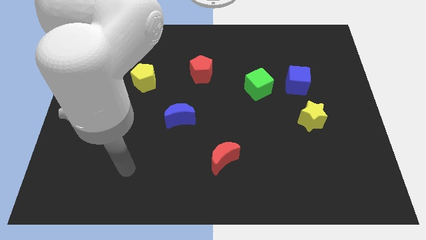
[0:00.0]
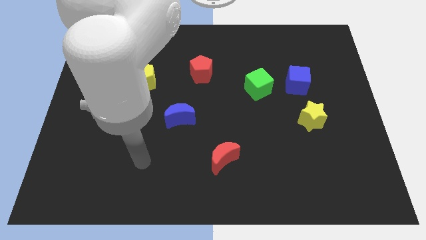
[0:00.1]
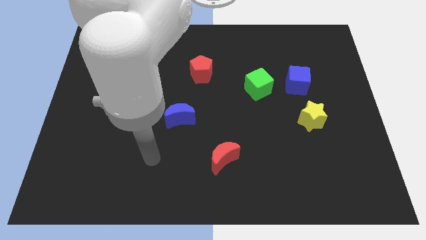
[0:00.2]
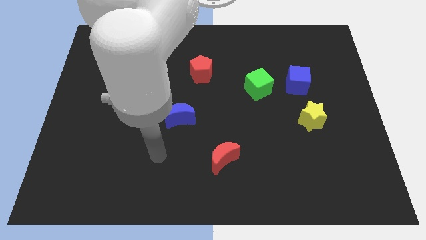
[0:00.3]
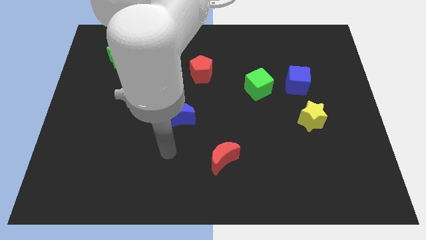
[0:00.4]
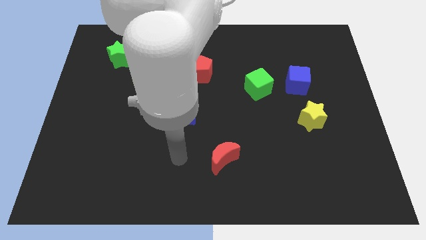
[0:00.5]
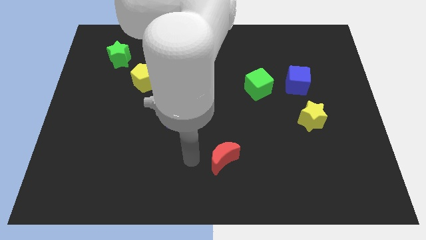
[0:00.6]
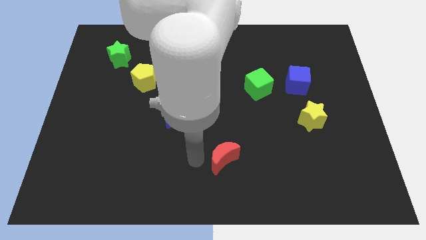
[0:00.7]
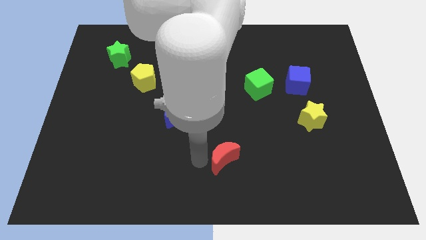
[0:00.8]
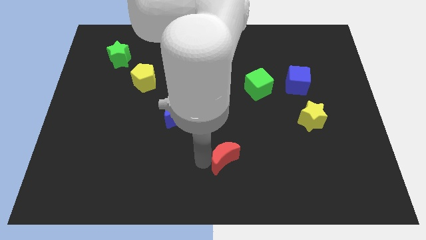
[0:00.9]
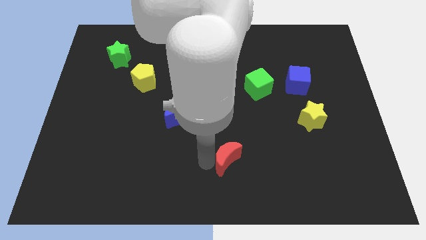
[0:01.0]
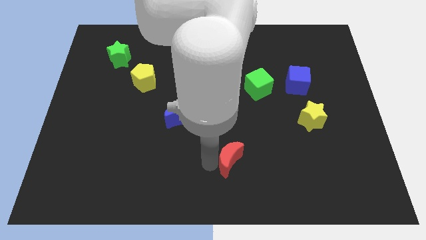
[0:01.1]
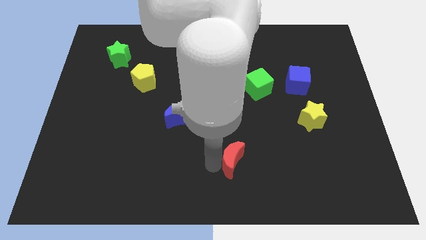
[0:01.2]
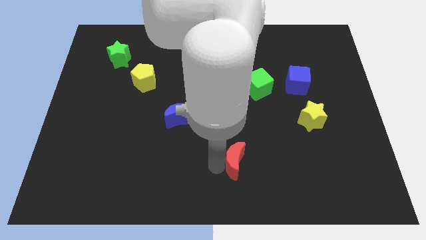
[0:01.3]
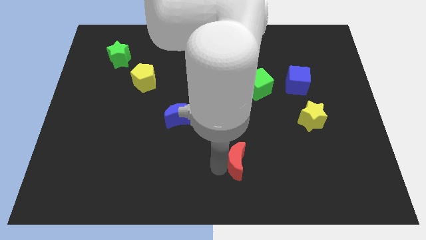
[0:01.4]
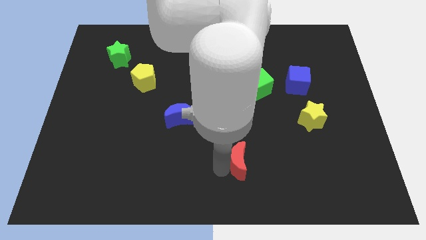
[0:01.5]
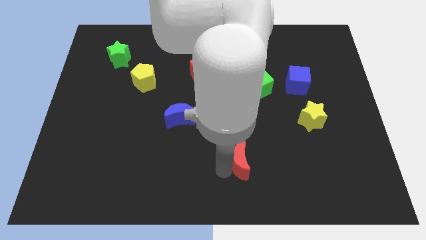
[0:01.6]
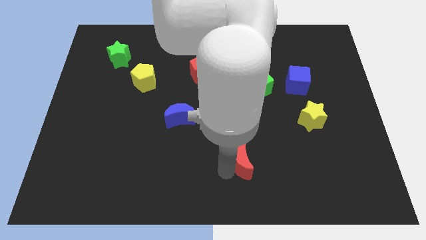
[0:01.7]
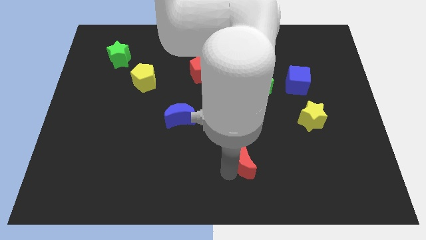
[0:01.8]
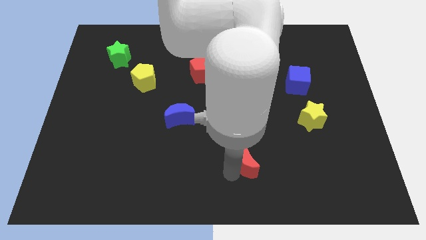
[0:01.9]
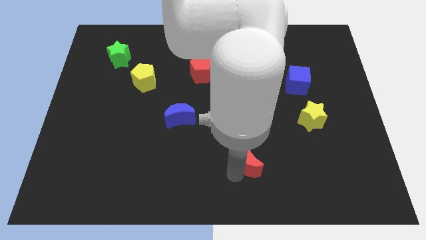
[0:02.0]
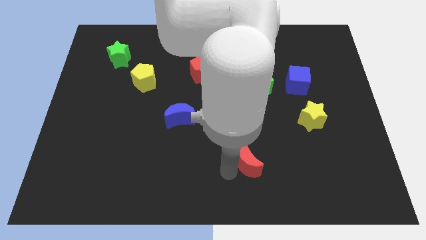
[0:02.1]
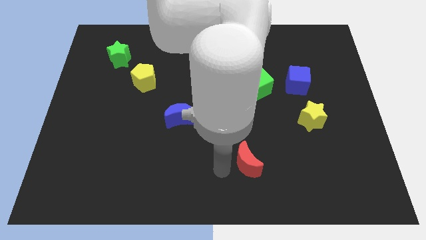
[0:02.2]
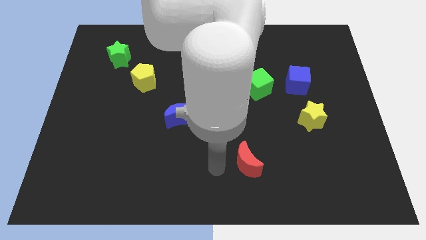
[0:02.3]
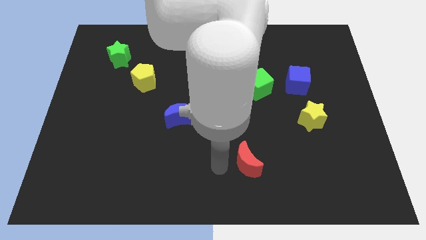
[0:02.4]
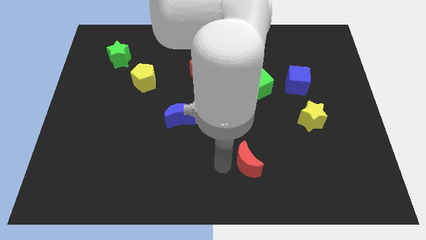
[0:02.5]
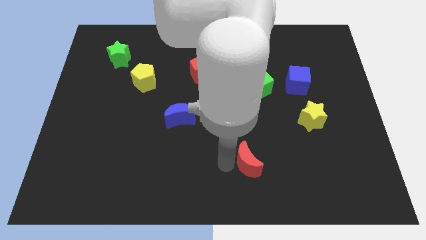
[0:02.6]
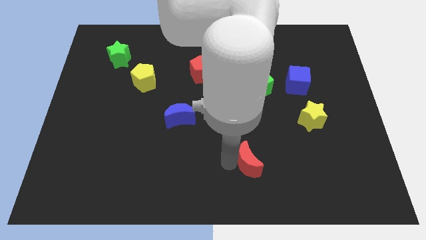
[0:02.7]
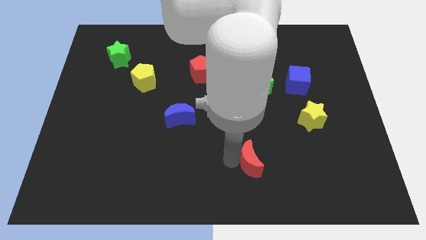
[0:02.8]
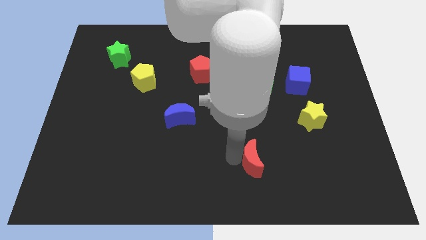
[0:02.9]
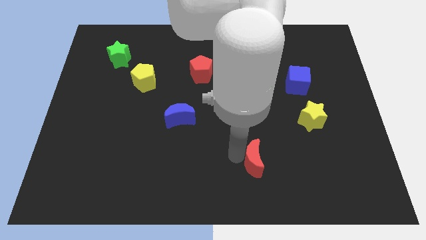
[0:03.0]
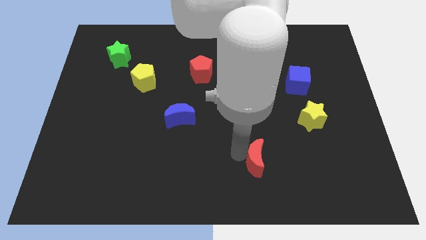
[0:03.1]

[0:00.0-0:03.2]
slightly push the red moon to the right

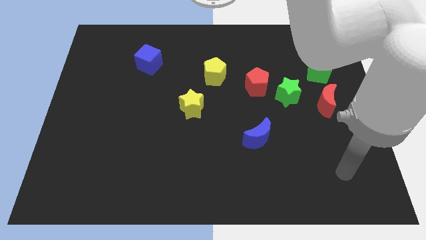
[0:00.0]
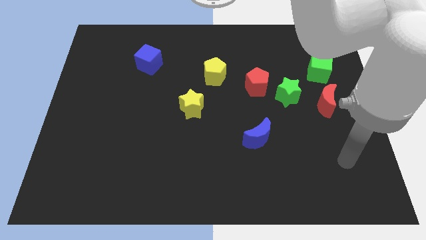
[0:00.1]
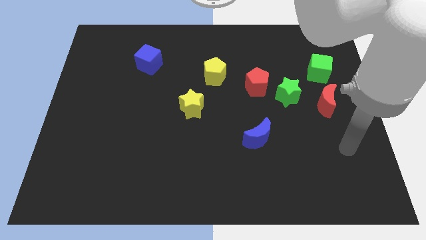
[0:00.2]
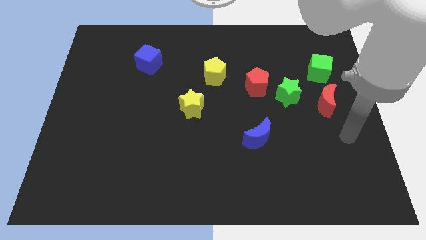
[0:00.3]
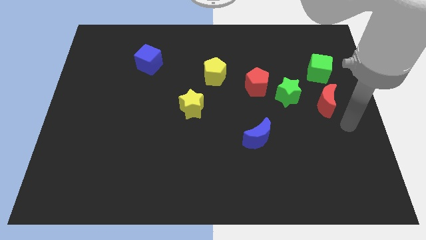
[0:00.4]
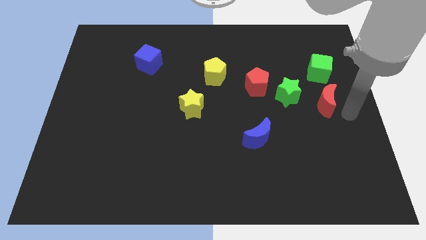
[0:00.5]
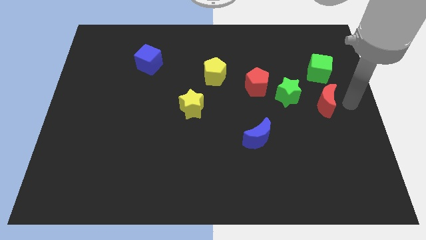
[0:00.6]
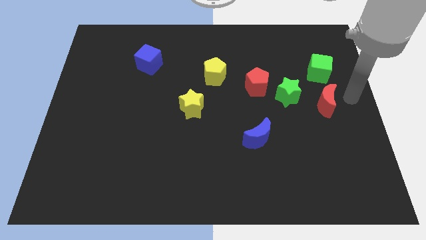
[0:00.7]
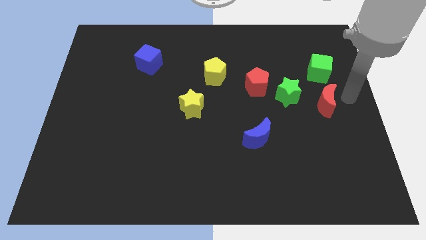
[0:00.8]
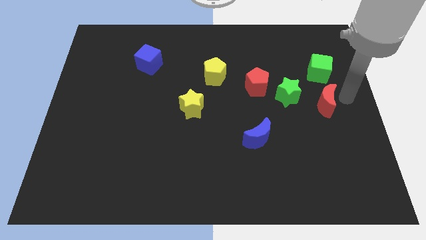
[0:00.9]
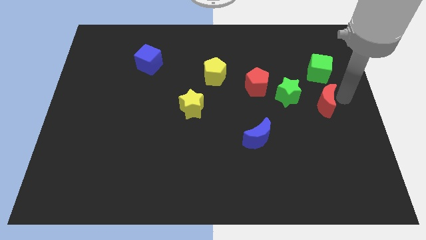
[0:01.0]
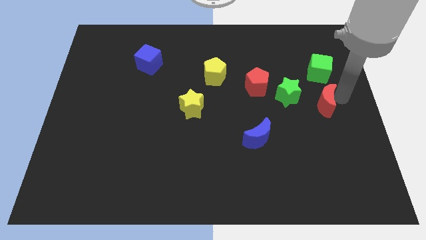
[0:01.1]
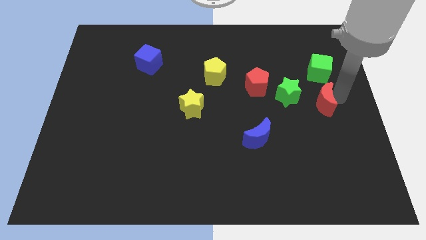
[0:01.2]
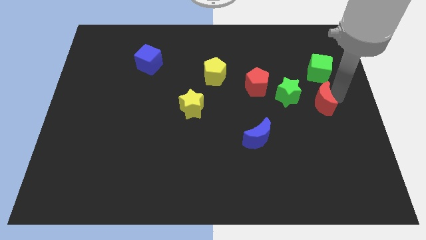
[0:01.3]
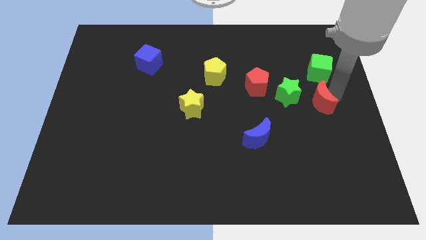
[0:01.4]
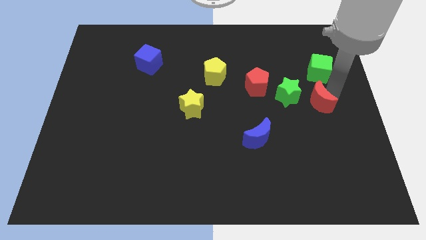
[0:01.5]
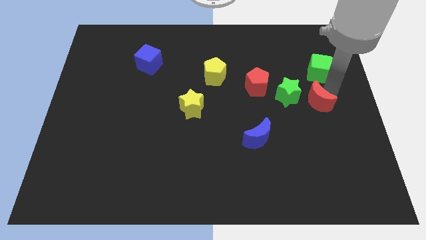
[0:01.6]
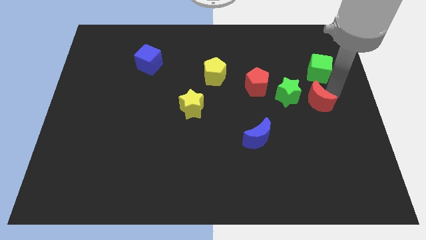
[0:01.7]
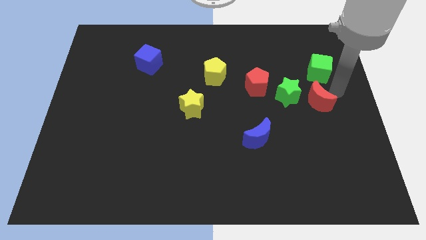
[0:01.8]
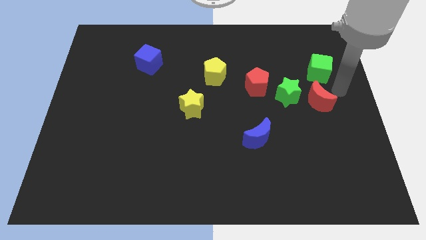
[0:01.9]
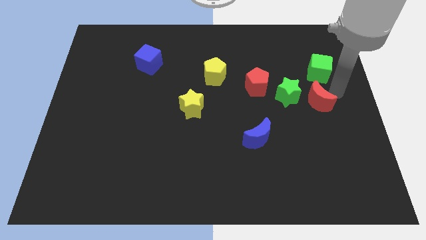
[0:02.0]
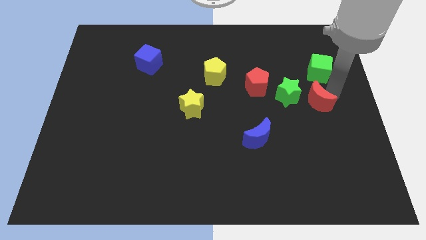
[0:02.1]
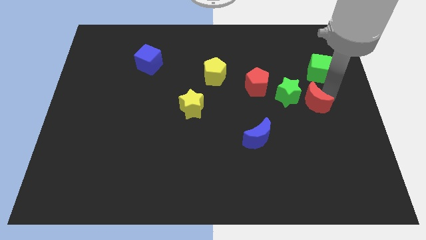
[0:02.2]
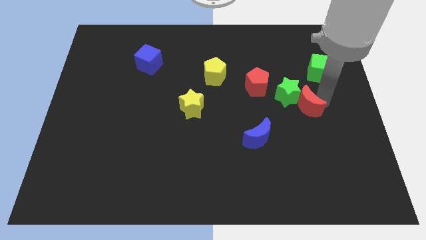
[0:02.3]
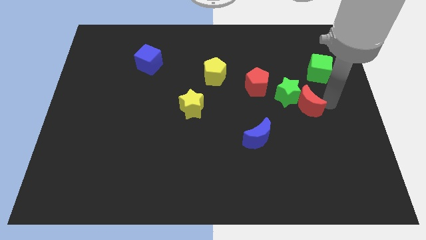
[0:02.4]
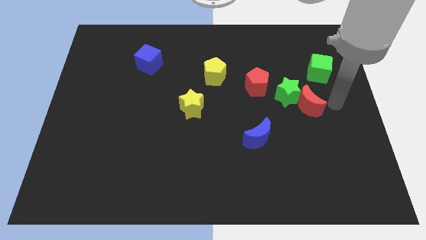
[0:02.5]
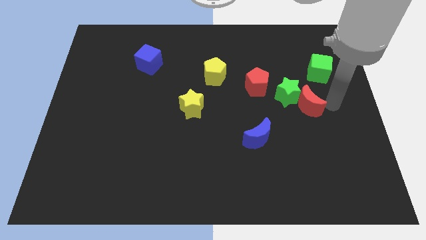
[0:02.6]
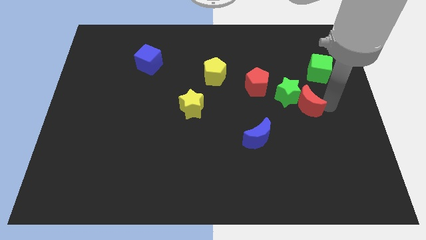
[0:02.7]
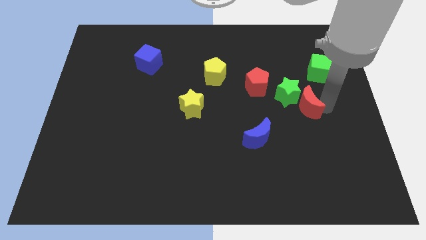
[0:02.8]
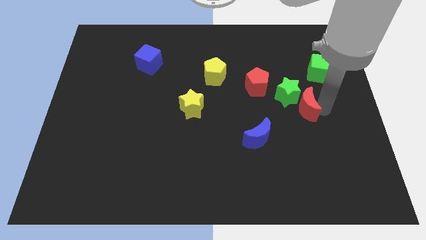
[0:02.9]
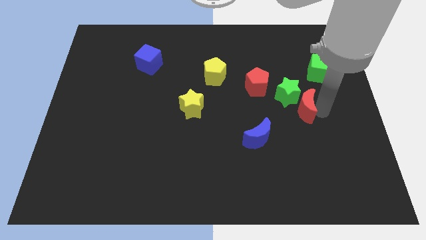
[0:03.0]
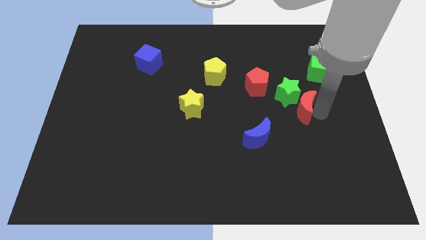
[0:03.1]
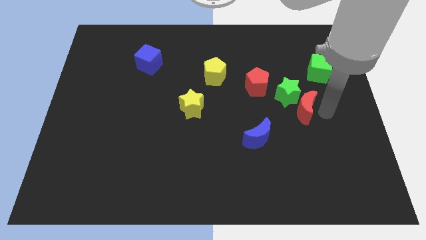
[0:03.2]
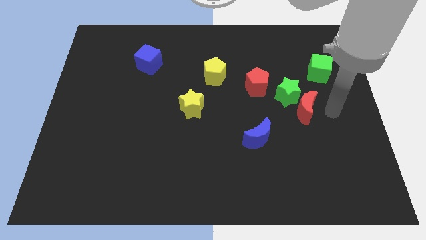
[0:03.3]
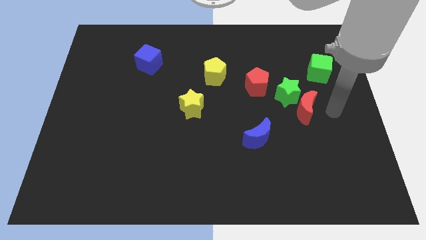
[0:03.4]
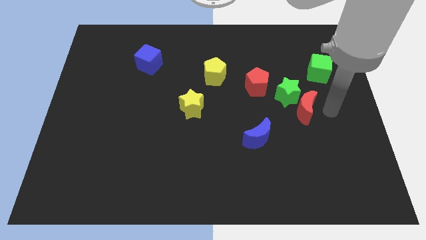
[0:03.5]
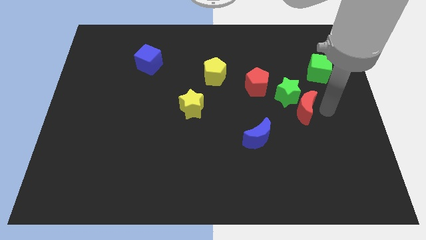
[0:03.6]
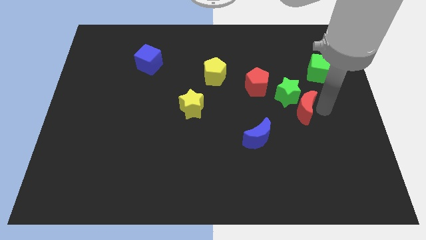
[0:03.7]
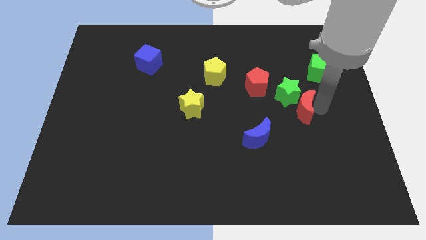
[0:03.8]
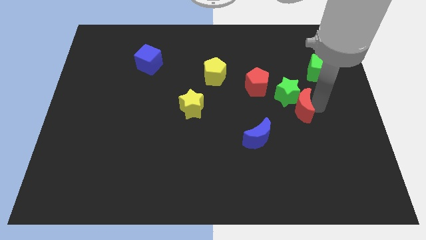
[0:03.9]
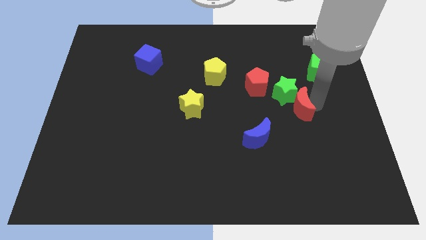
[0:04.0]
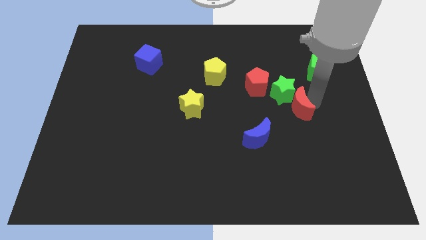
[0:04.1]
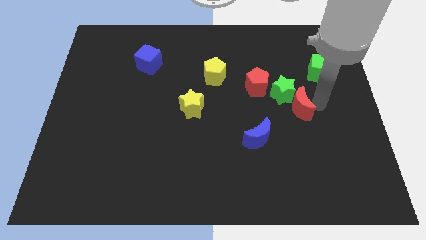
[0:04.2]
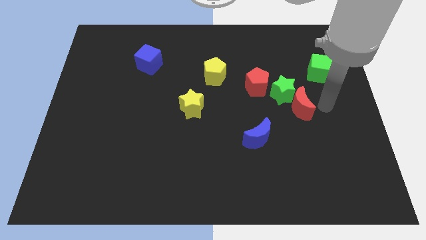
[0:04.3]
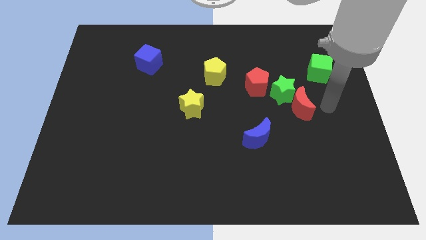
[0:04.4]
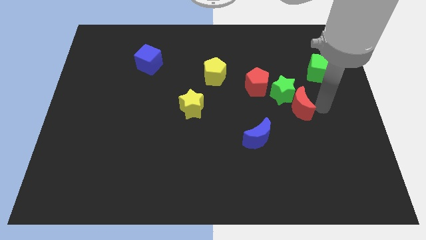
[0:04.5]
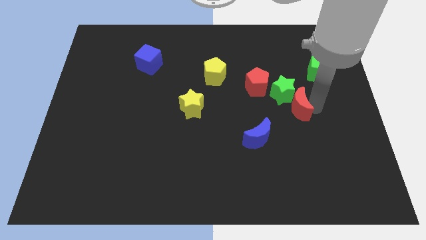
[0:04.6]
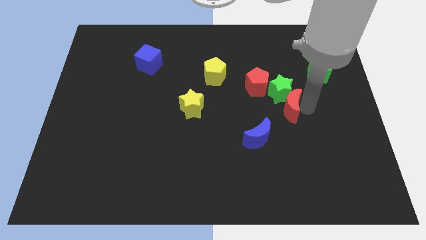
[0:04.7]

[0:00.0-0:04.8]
push the red moon to the left a bit

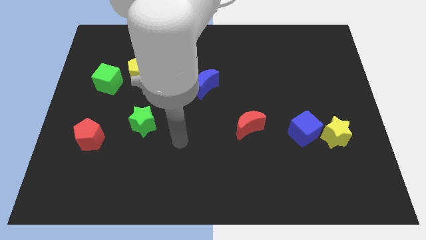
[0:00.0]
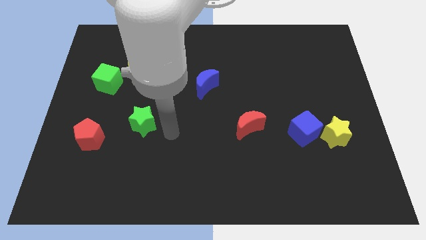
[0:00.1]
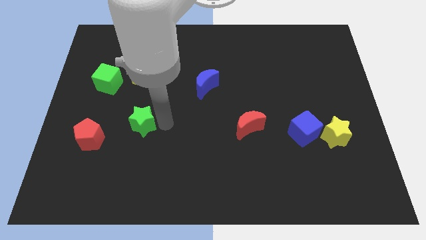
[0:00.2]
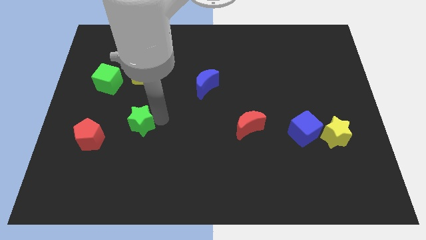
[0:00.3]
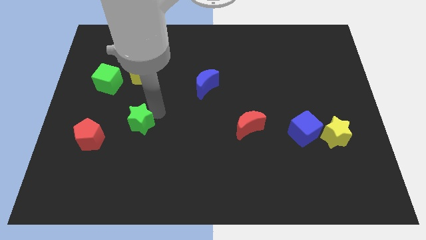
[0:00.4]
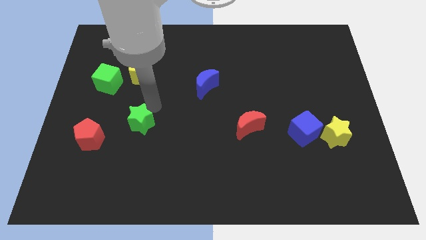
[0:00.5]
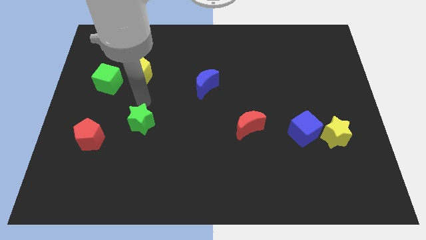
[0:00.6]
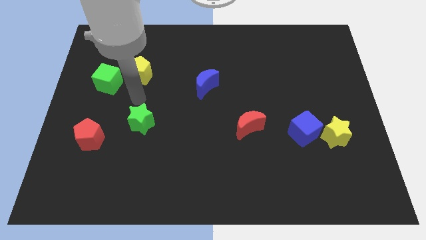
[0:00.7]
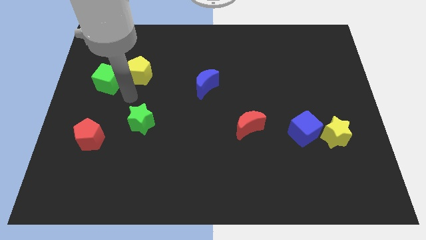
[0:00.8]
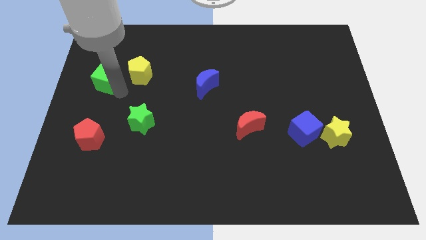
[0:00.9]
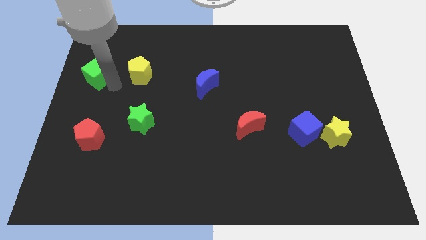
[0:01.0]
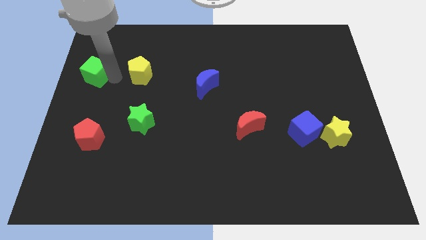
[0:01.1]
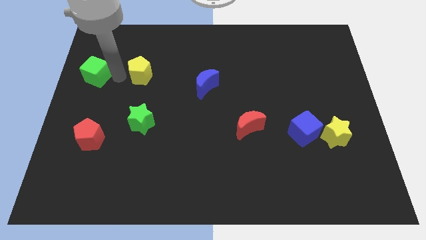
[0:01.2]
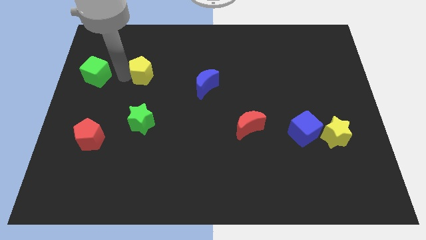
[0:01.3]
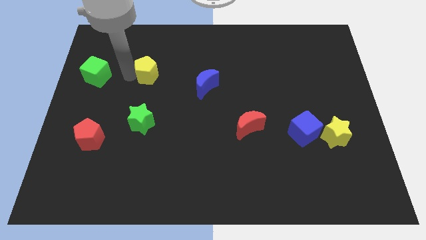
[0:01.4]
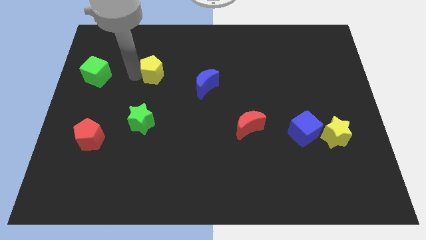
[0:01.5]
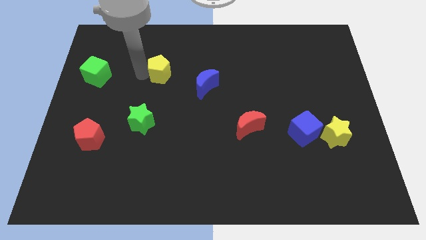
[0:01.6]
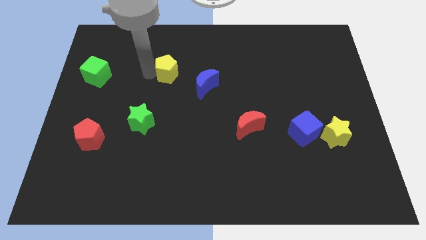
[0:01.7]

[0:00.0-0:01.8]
slightly move the yellow pentagon to the right
